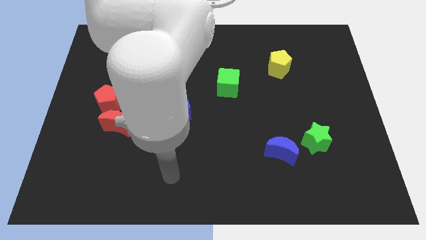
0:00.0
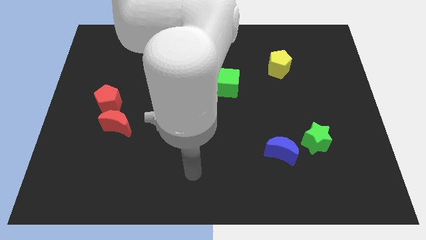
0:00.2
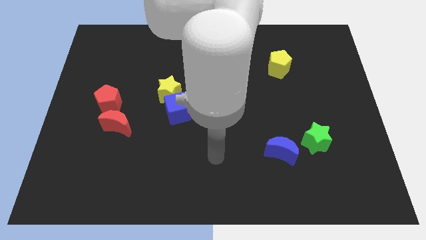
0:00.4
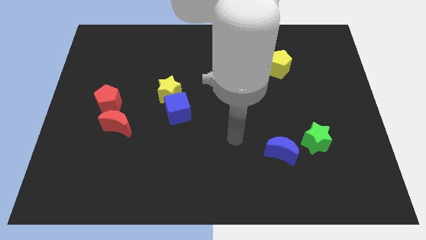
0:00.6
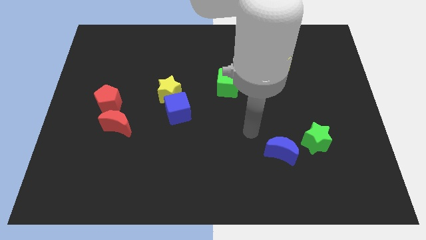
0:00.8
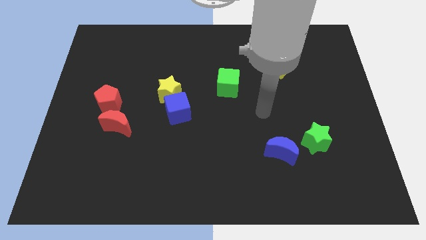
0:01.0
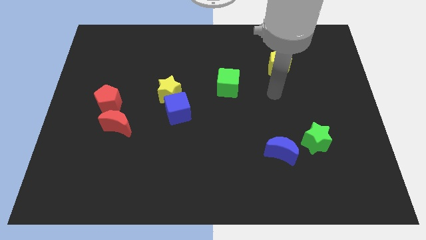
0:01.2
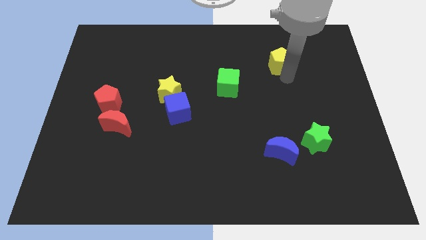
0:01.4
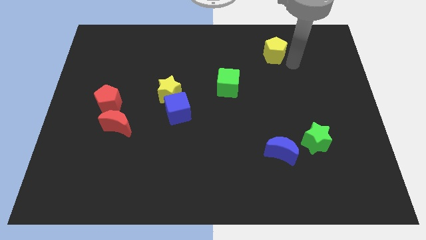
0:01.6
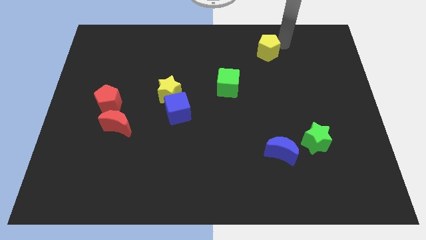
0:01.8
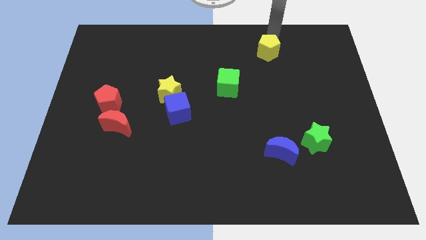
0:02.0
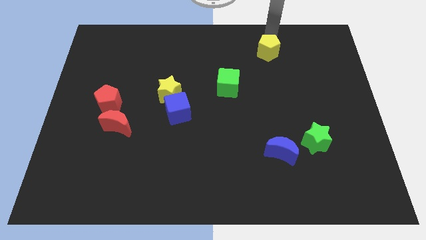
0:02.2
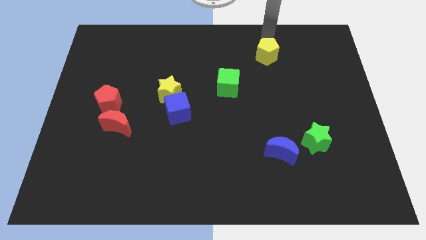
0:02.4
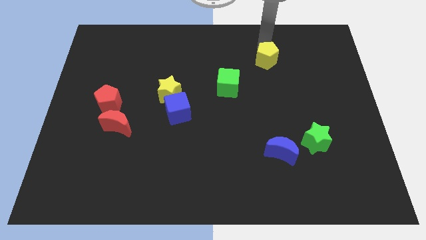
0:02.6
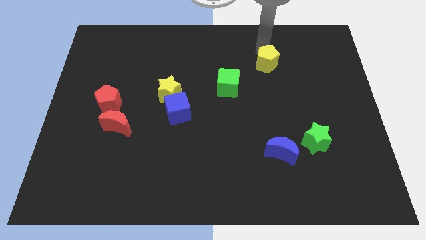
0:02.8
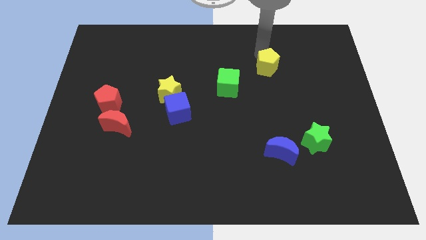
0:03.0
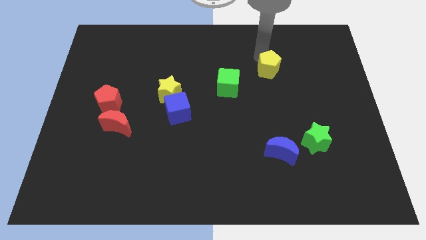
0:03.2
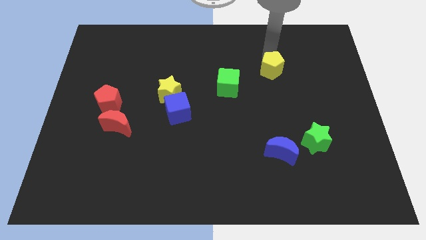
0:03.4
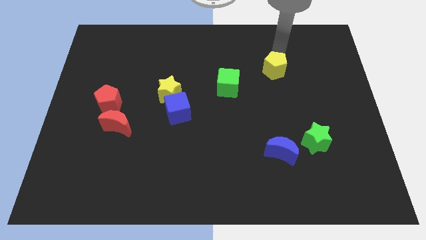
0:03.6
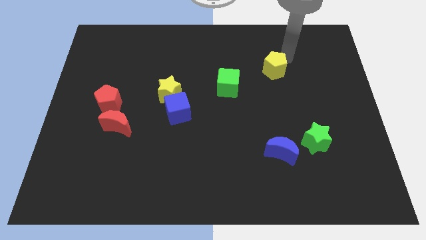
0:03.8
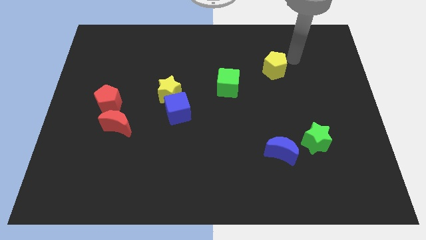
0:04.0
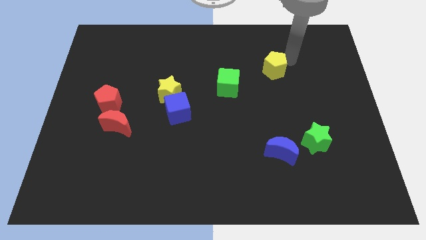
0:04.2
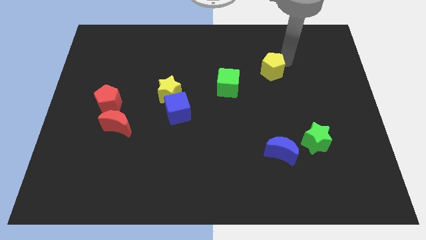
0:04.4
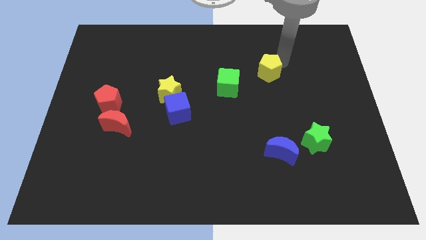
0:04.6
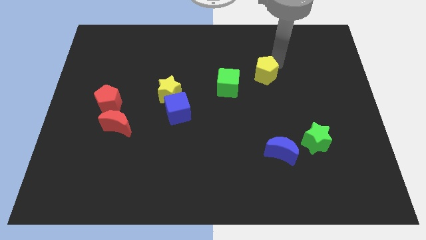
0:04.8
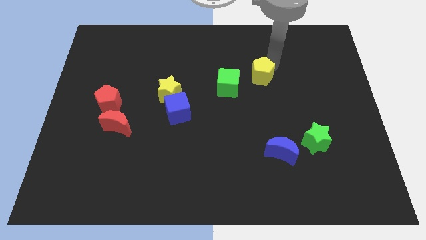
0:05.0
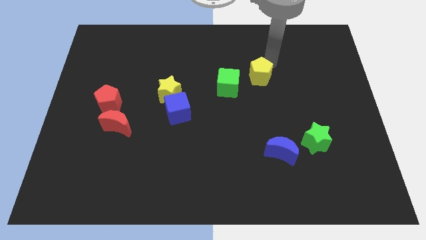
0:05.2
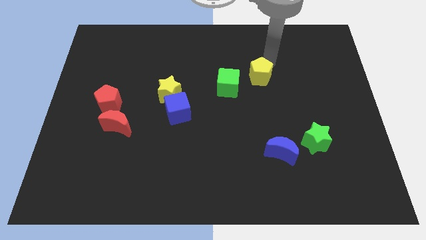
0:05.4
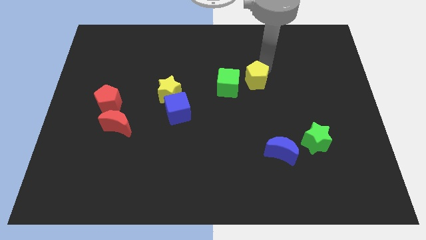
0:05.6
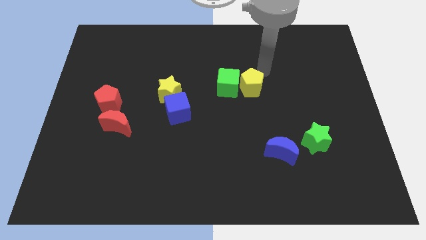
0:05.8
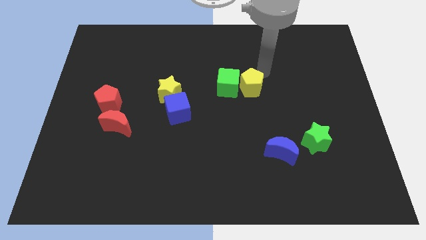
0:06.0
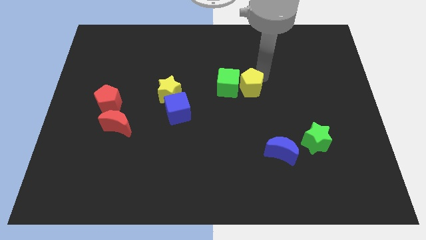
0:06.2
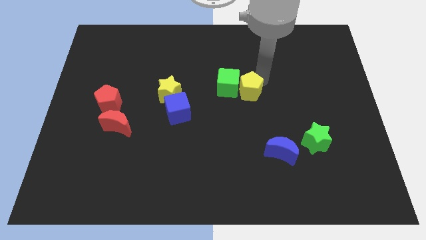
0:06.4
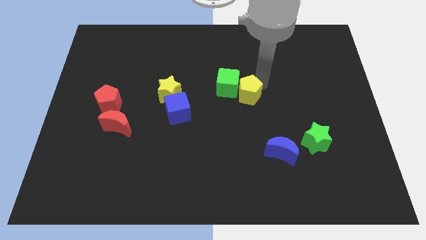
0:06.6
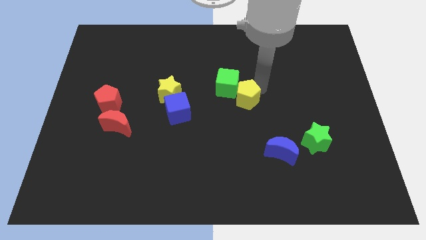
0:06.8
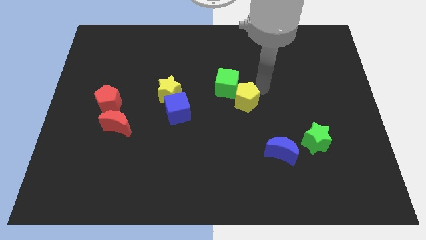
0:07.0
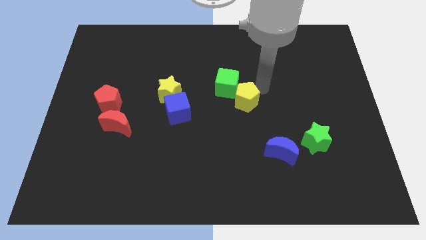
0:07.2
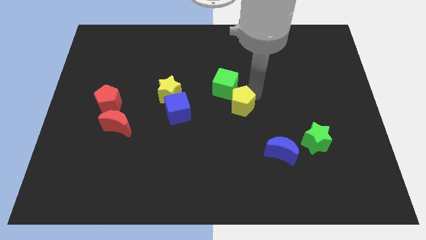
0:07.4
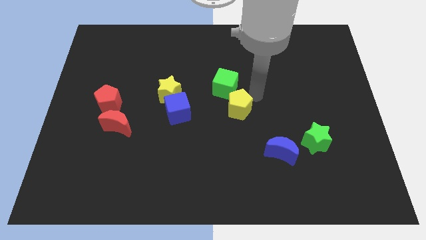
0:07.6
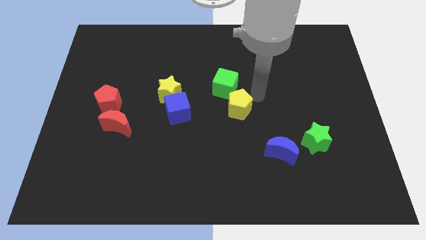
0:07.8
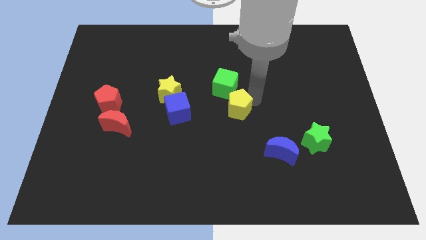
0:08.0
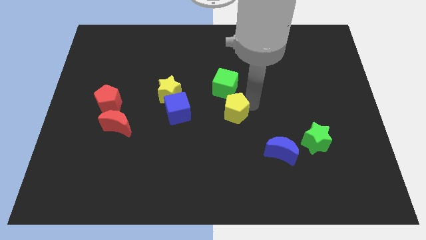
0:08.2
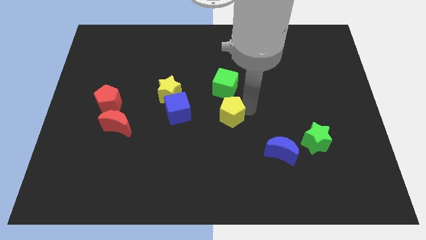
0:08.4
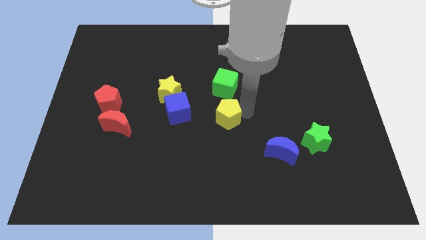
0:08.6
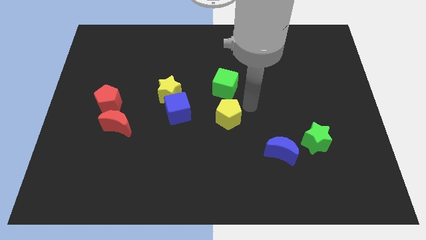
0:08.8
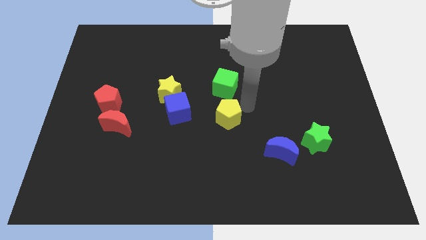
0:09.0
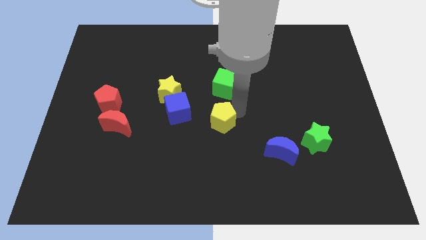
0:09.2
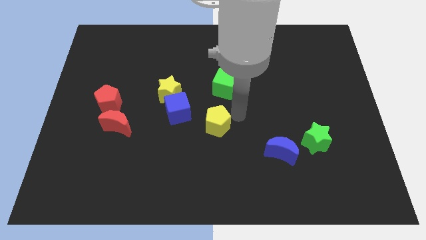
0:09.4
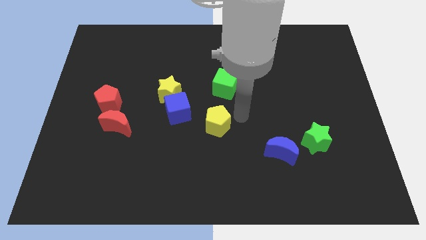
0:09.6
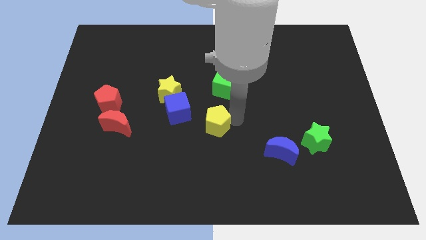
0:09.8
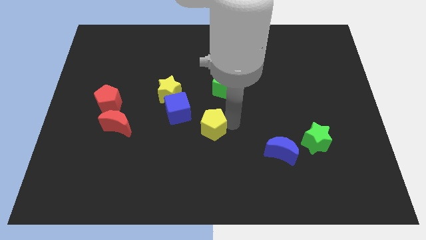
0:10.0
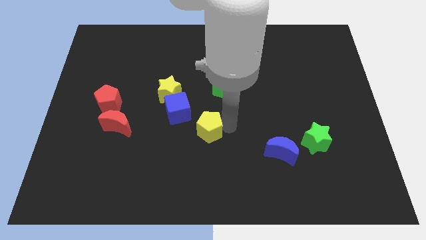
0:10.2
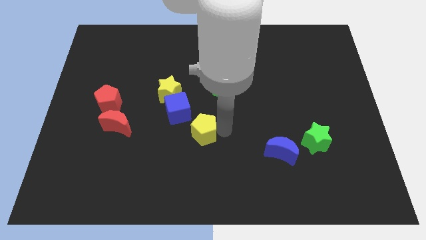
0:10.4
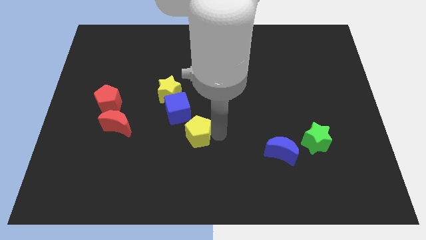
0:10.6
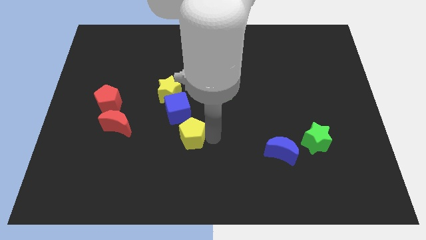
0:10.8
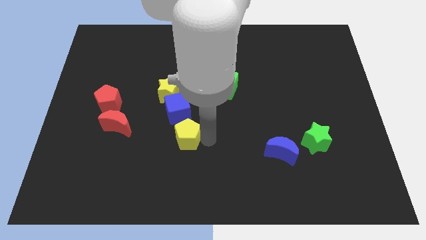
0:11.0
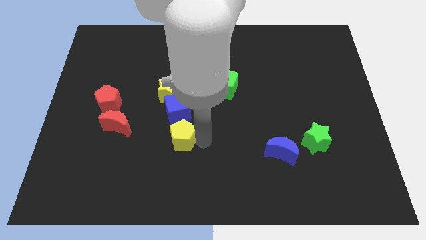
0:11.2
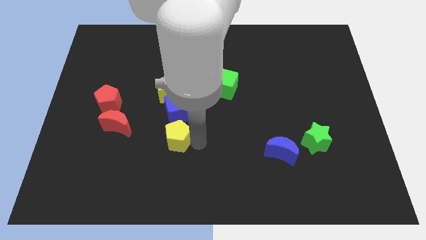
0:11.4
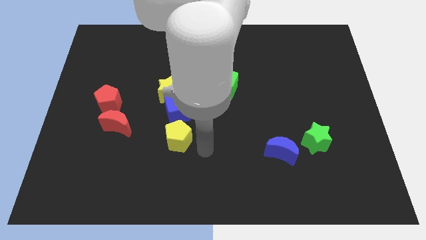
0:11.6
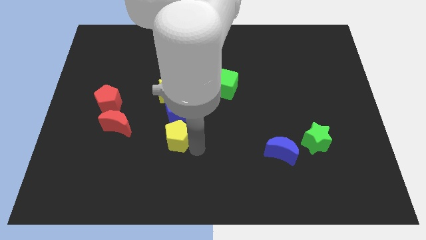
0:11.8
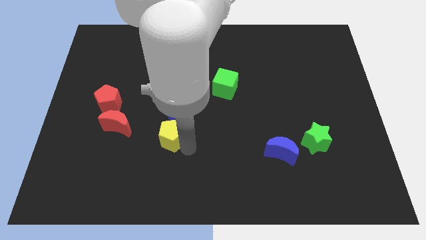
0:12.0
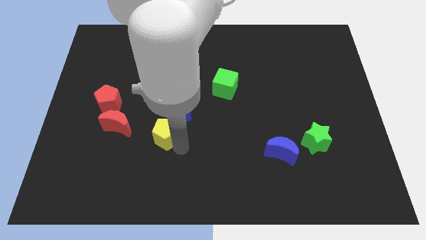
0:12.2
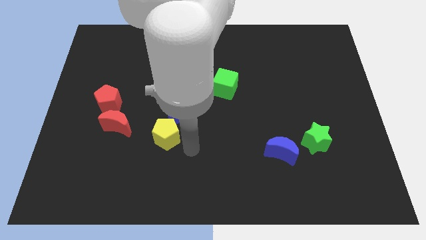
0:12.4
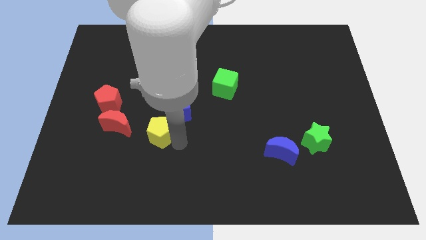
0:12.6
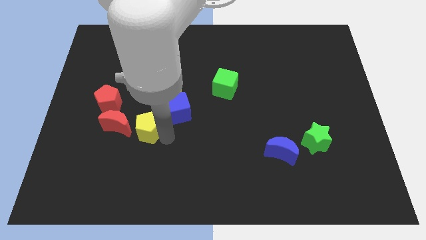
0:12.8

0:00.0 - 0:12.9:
move the yellow pentagon to the bottom right side of the red pentagon
